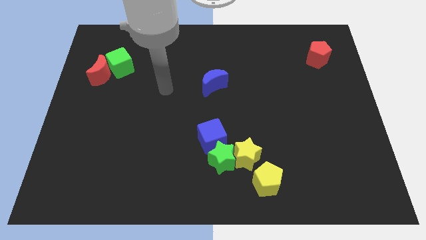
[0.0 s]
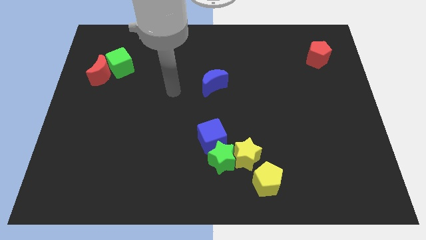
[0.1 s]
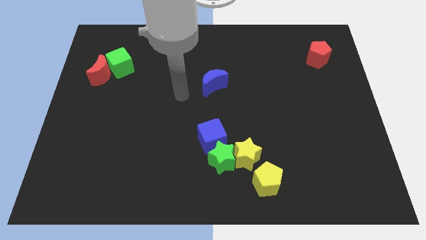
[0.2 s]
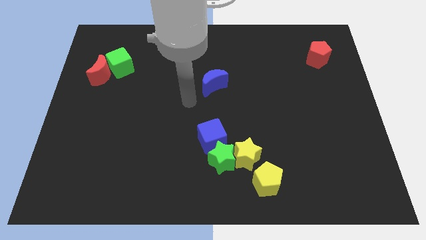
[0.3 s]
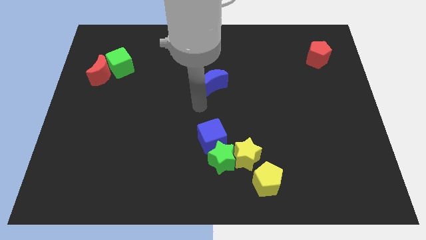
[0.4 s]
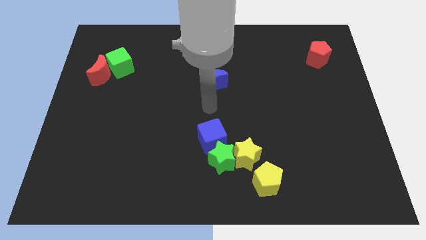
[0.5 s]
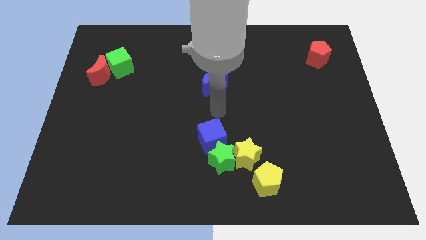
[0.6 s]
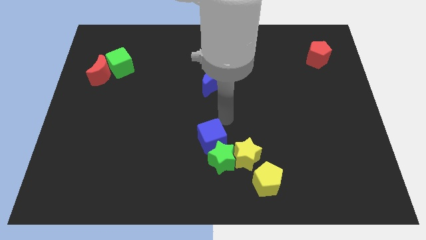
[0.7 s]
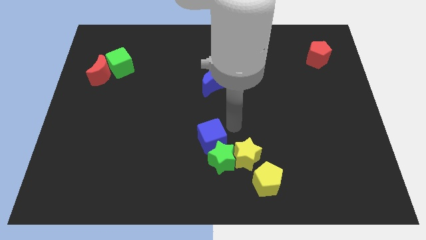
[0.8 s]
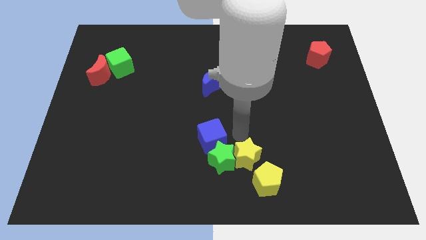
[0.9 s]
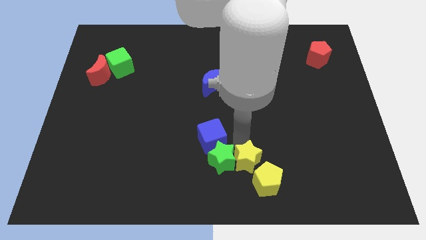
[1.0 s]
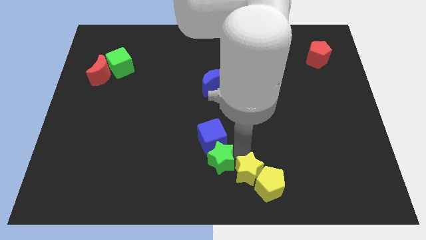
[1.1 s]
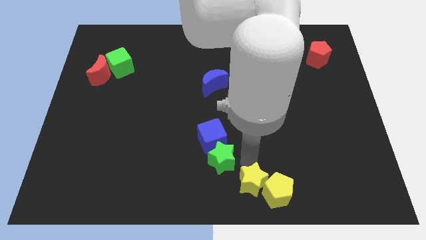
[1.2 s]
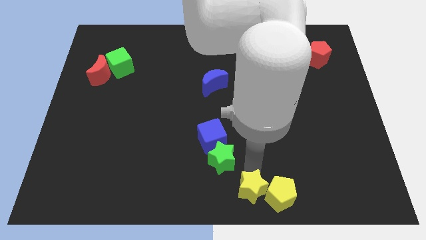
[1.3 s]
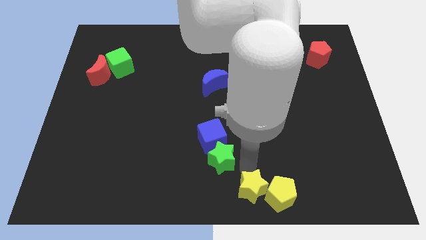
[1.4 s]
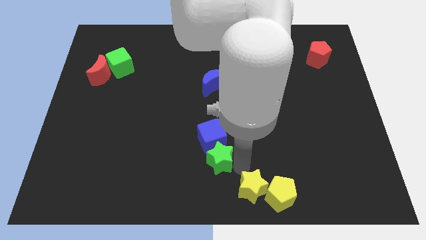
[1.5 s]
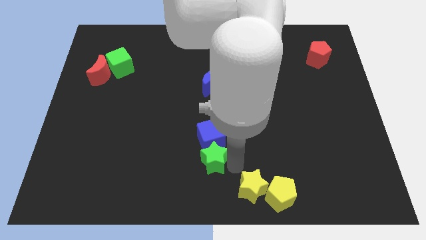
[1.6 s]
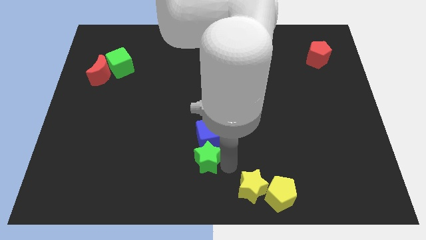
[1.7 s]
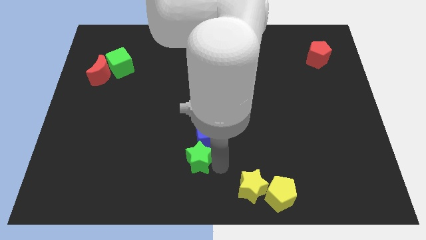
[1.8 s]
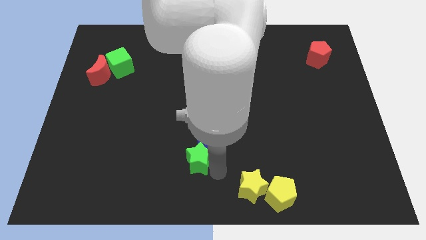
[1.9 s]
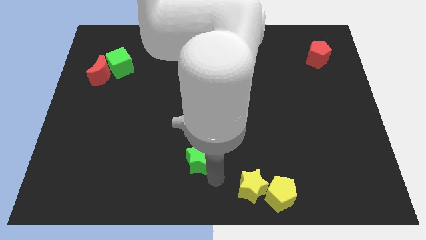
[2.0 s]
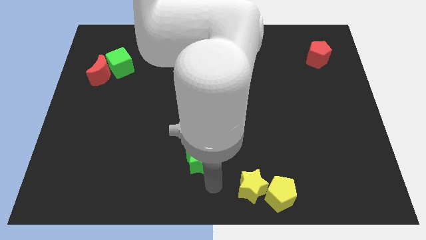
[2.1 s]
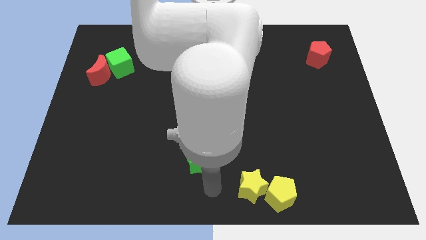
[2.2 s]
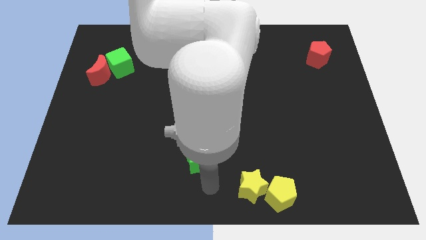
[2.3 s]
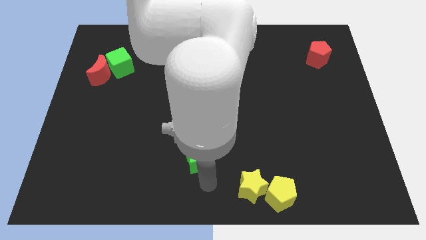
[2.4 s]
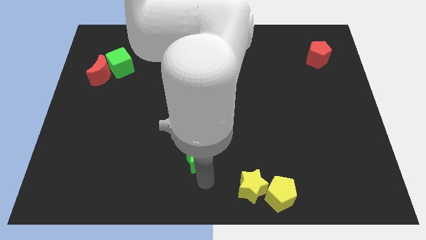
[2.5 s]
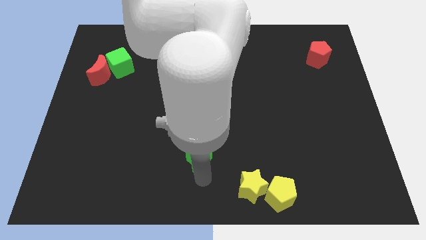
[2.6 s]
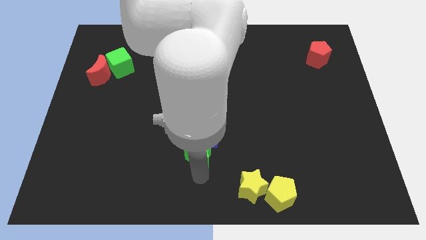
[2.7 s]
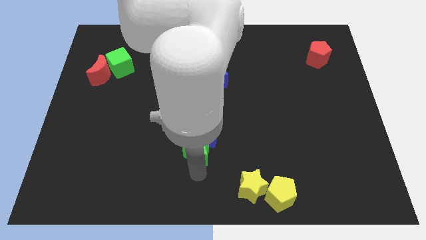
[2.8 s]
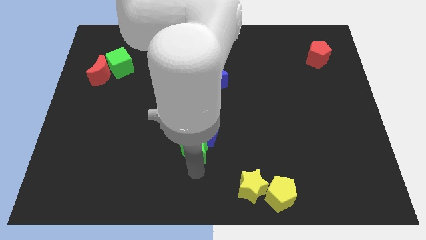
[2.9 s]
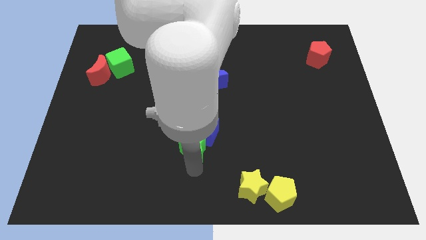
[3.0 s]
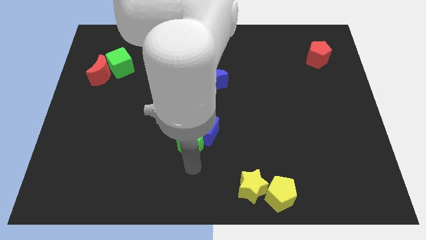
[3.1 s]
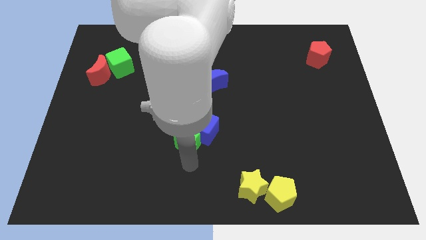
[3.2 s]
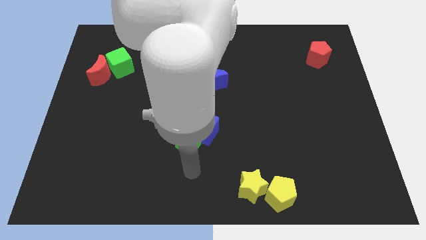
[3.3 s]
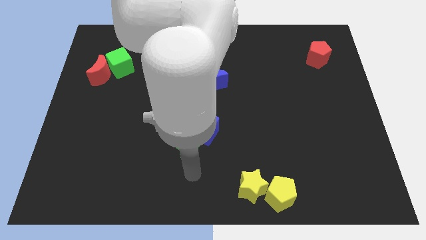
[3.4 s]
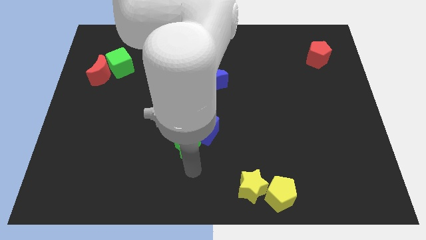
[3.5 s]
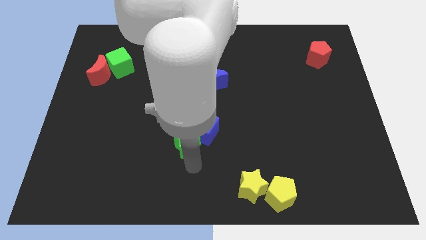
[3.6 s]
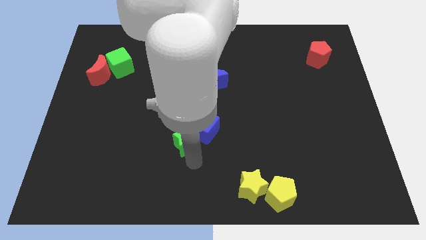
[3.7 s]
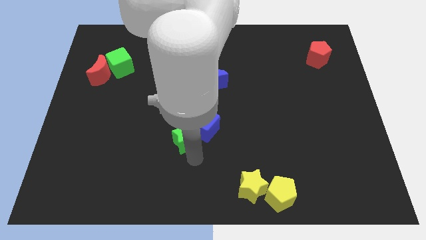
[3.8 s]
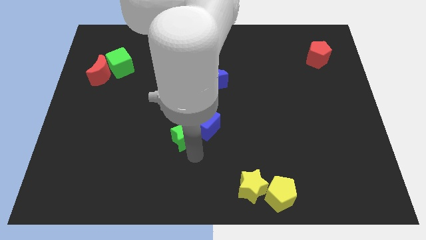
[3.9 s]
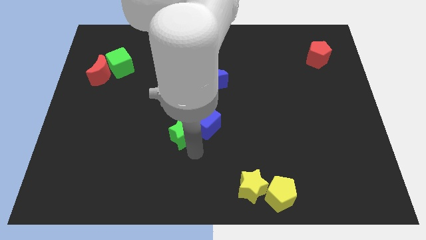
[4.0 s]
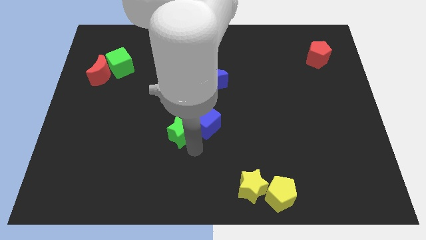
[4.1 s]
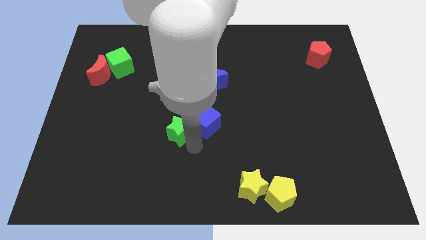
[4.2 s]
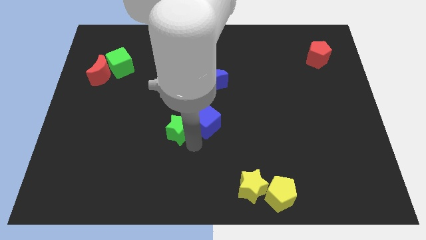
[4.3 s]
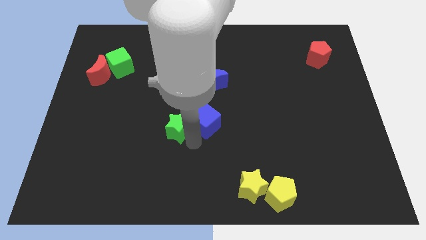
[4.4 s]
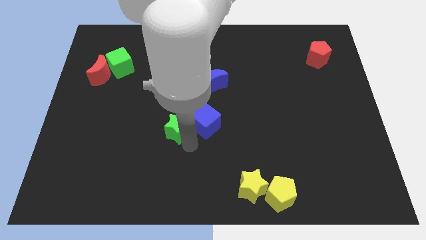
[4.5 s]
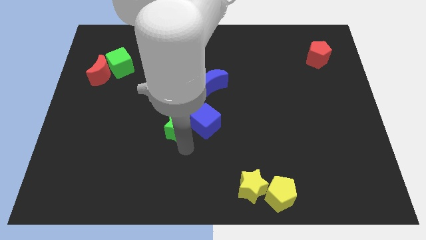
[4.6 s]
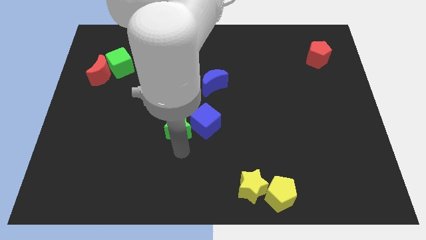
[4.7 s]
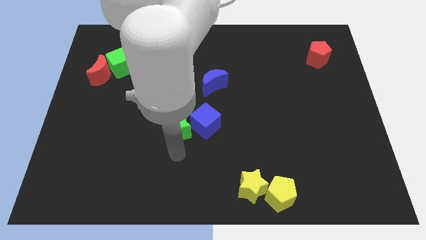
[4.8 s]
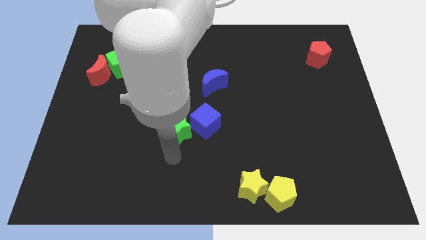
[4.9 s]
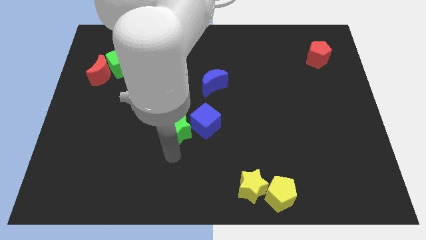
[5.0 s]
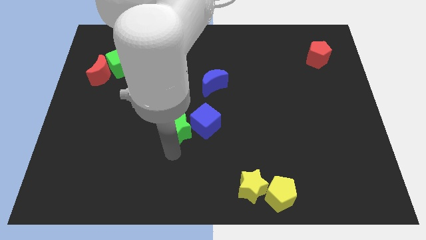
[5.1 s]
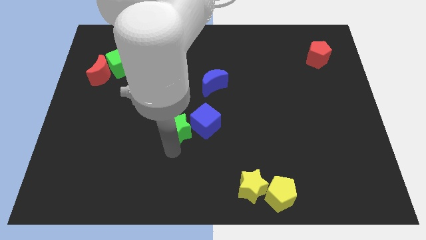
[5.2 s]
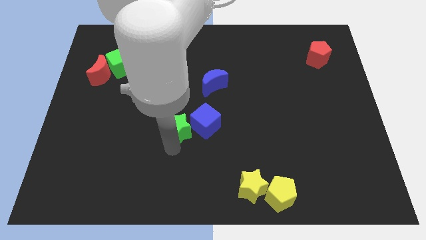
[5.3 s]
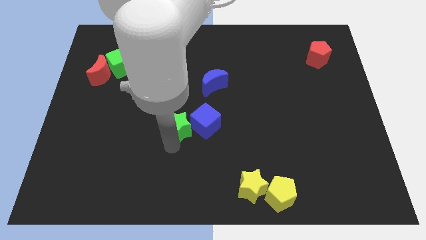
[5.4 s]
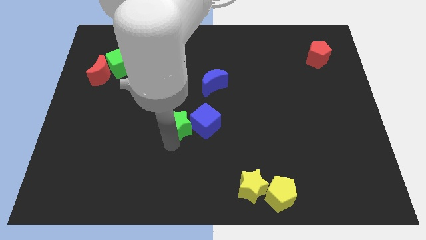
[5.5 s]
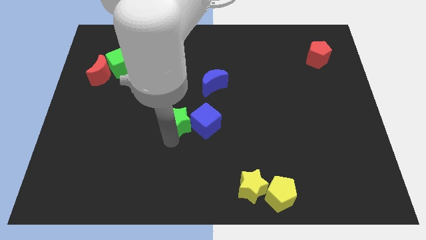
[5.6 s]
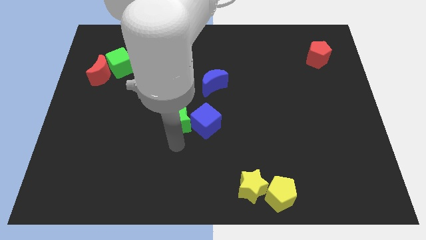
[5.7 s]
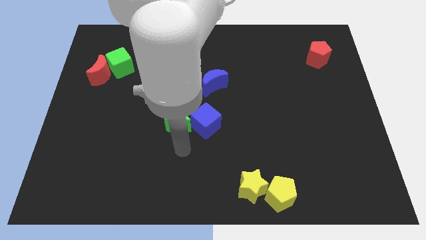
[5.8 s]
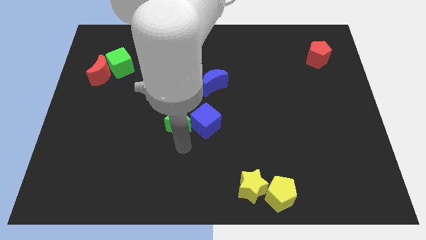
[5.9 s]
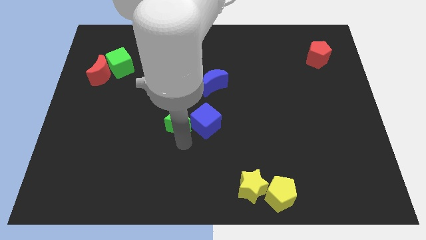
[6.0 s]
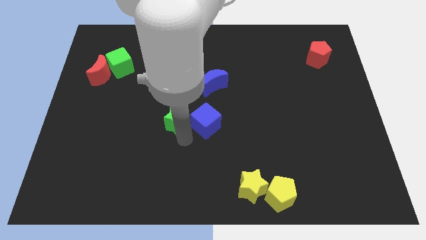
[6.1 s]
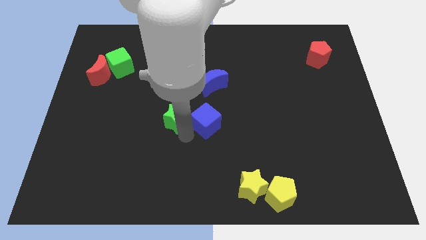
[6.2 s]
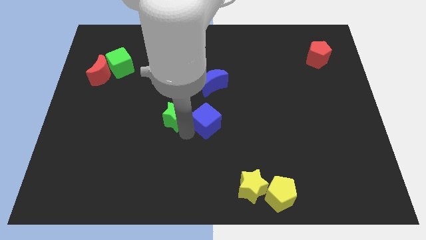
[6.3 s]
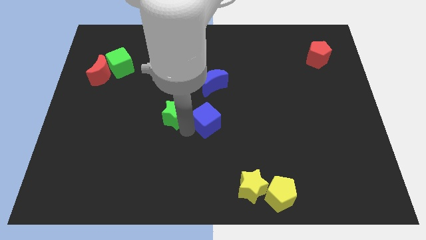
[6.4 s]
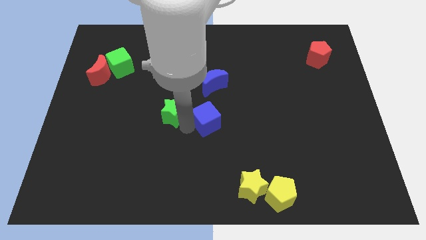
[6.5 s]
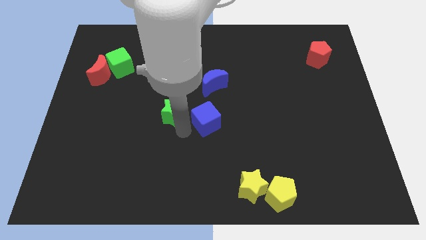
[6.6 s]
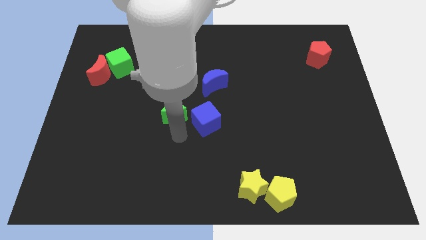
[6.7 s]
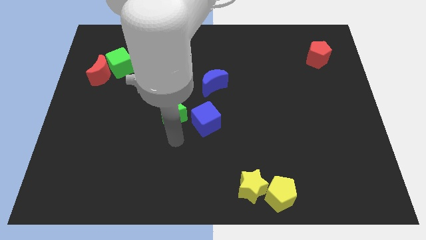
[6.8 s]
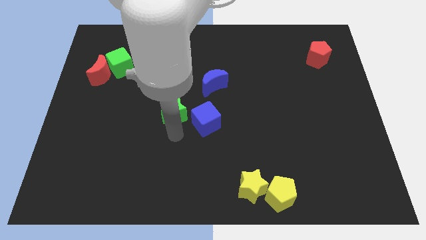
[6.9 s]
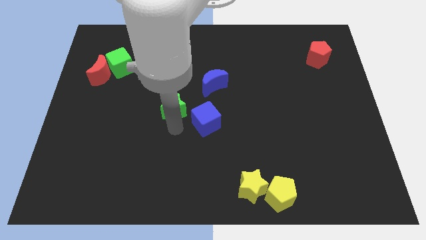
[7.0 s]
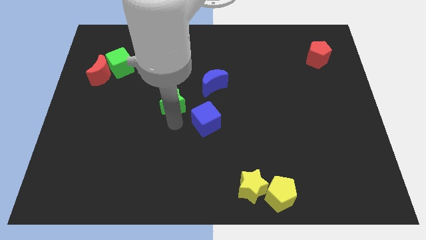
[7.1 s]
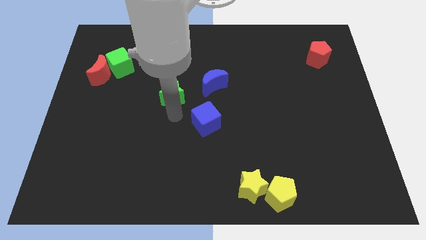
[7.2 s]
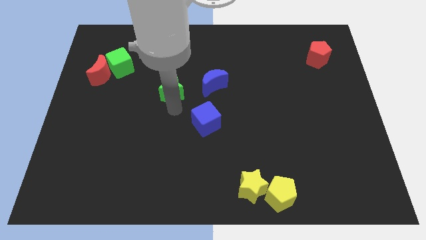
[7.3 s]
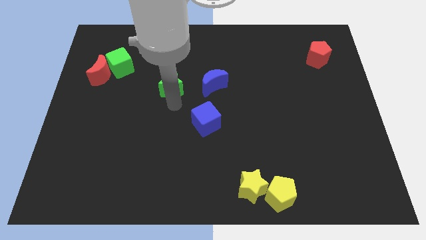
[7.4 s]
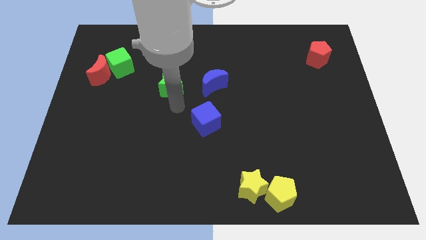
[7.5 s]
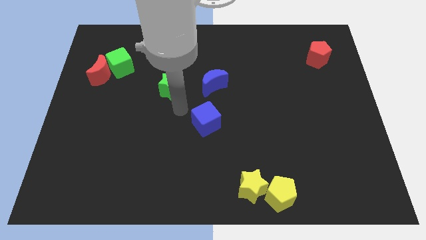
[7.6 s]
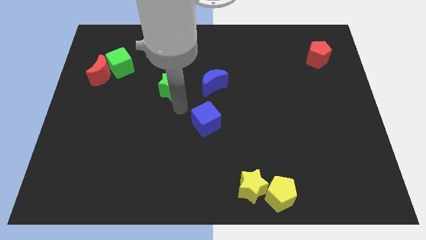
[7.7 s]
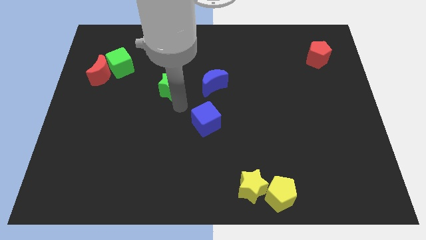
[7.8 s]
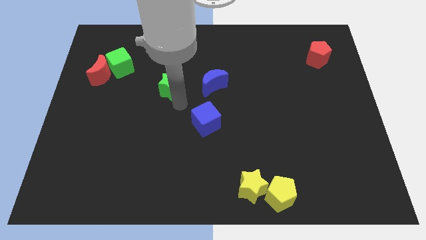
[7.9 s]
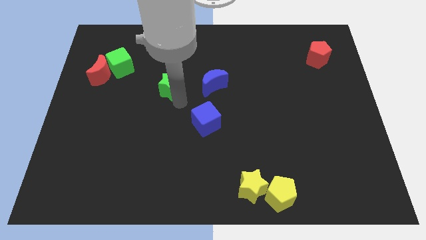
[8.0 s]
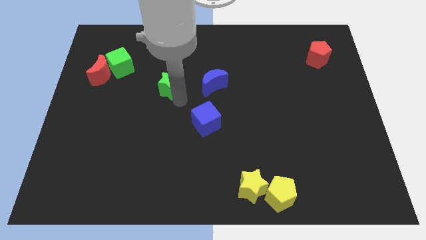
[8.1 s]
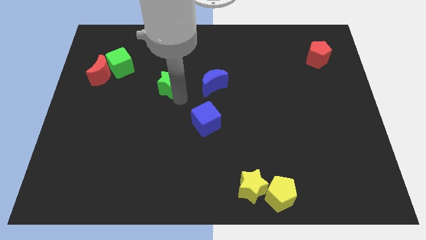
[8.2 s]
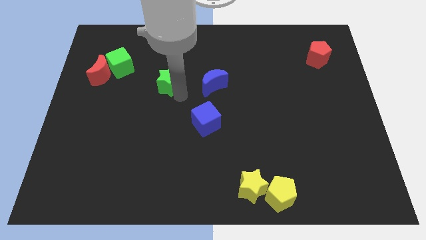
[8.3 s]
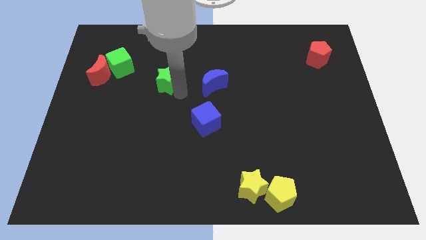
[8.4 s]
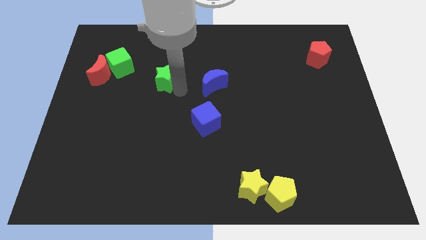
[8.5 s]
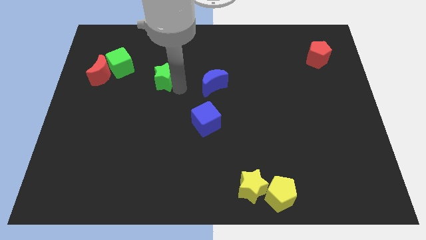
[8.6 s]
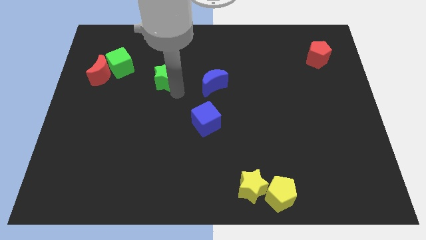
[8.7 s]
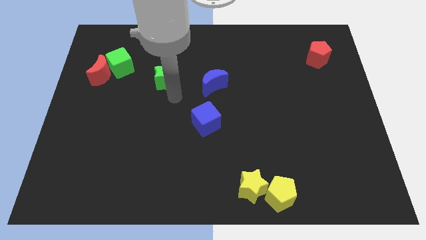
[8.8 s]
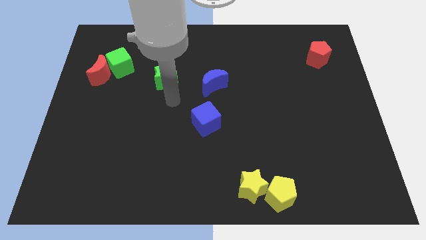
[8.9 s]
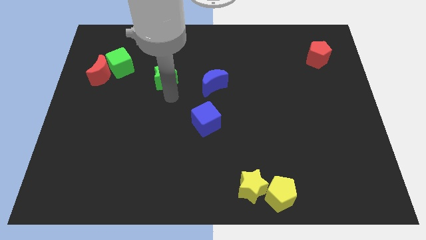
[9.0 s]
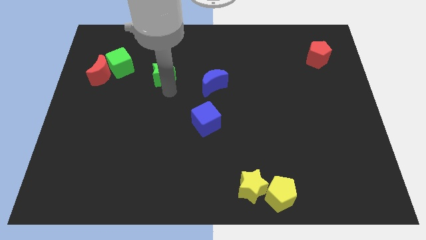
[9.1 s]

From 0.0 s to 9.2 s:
slide the green star to the right side of the green cube
